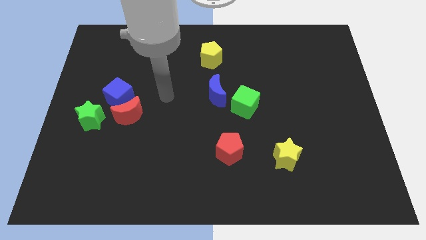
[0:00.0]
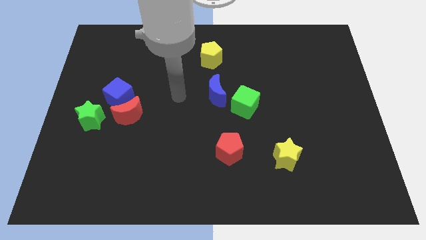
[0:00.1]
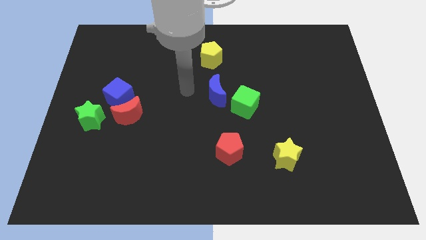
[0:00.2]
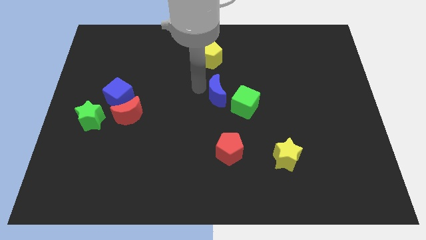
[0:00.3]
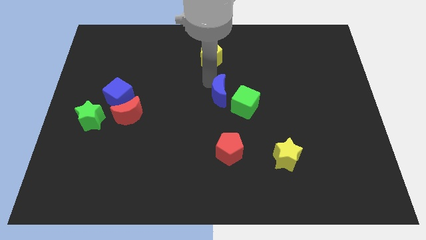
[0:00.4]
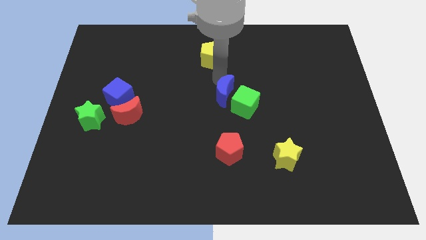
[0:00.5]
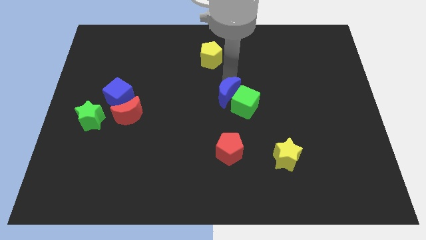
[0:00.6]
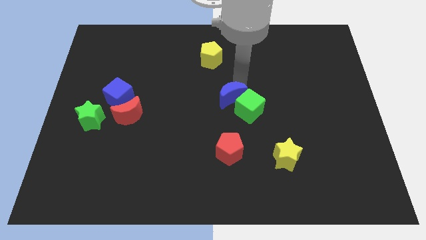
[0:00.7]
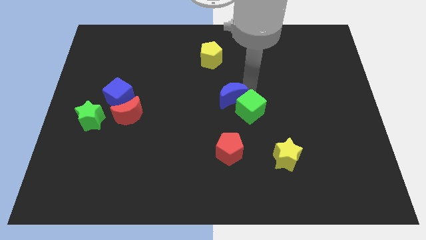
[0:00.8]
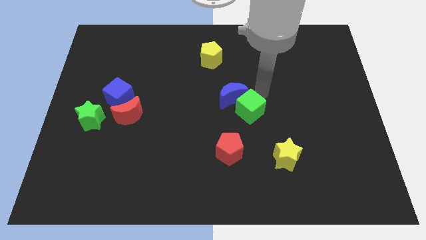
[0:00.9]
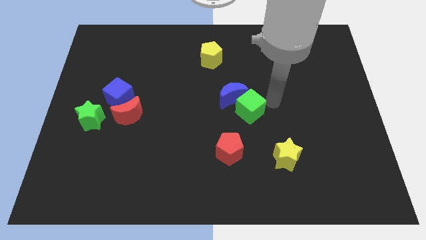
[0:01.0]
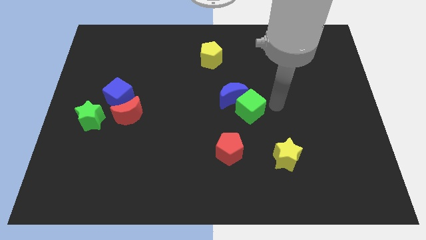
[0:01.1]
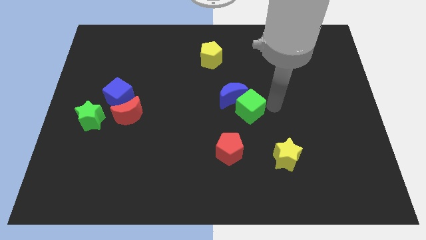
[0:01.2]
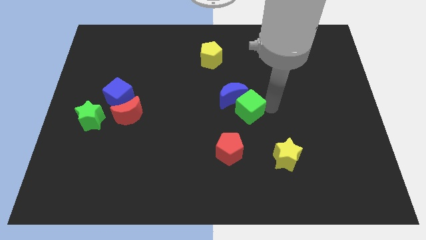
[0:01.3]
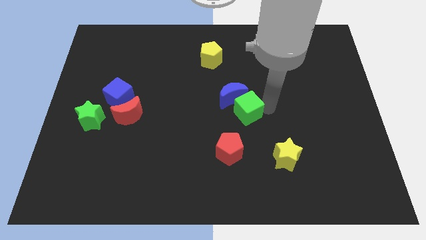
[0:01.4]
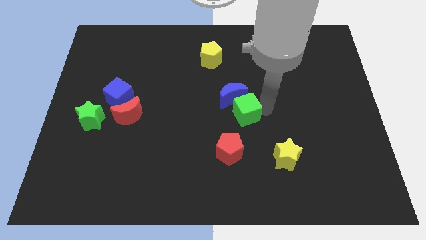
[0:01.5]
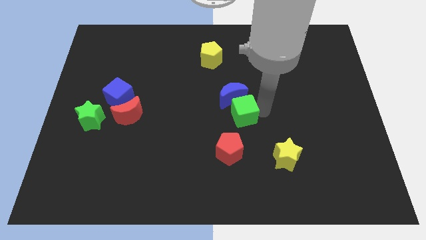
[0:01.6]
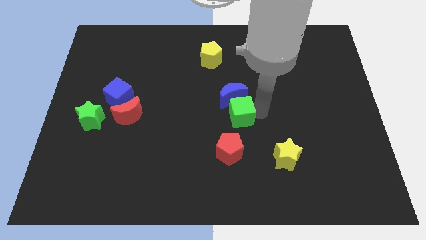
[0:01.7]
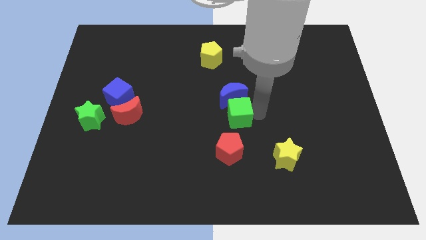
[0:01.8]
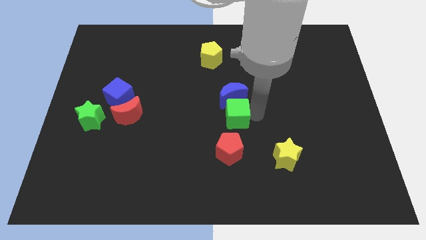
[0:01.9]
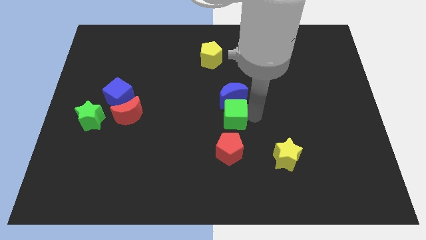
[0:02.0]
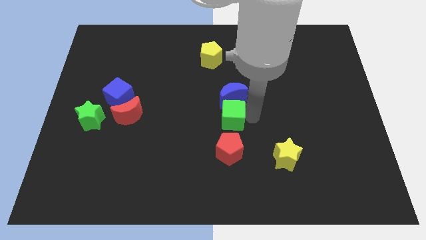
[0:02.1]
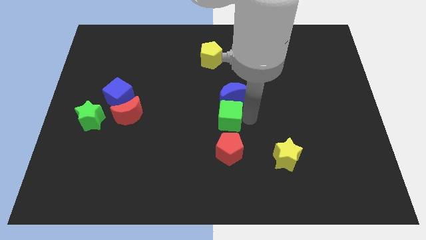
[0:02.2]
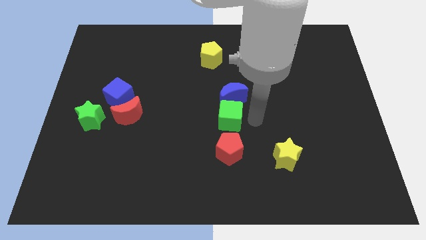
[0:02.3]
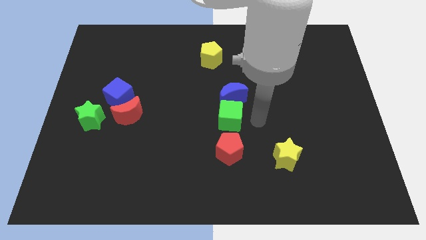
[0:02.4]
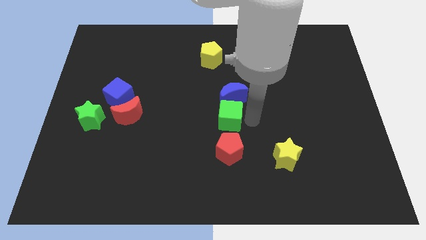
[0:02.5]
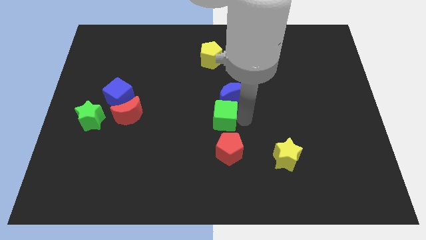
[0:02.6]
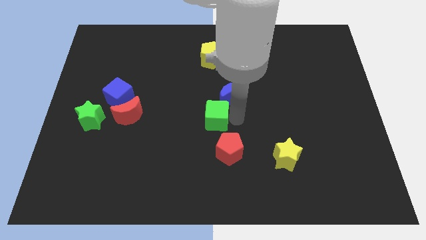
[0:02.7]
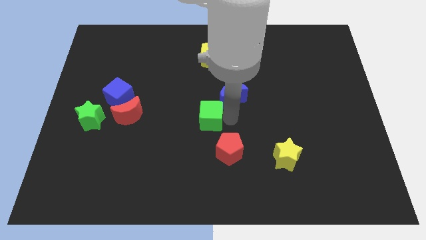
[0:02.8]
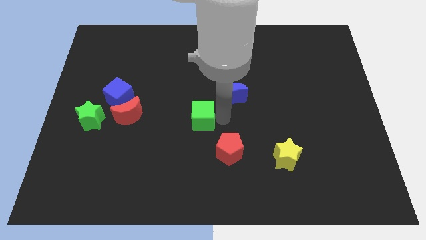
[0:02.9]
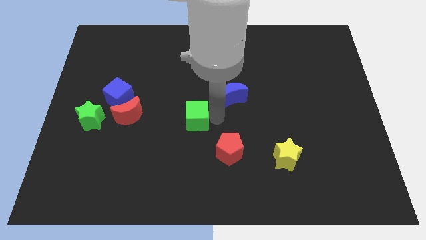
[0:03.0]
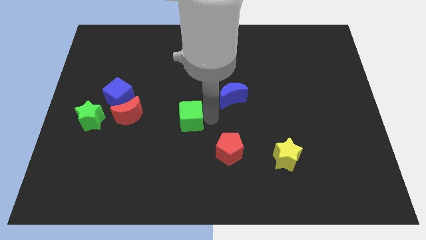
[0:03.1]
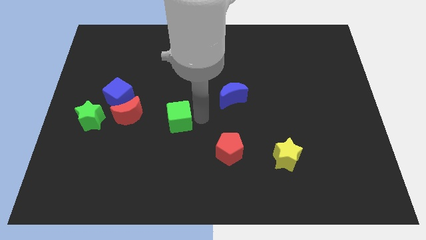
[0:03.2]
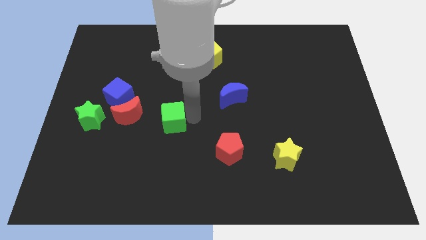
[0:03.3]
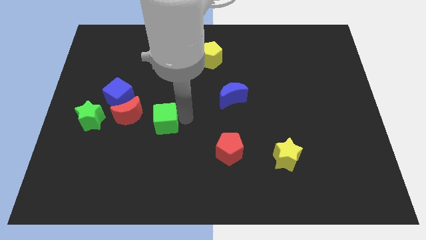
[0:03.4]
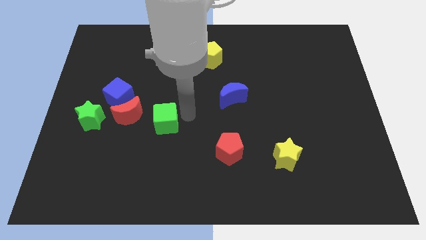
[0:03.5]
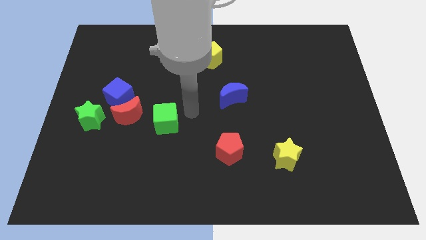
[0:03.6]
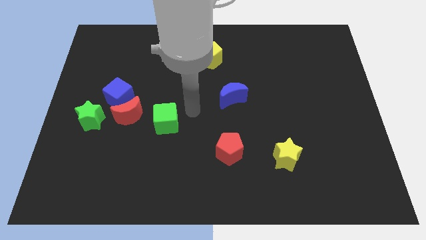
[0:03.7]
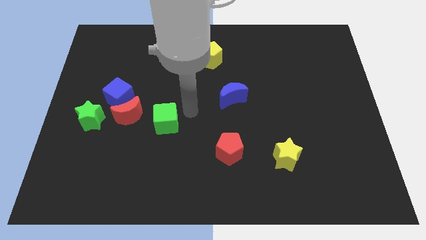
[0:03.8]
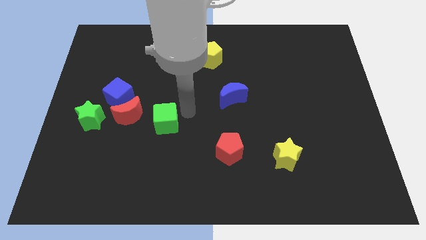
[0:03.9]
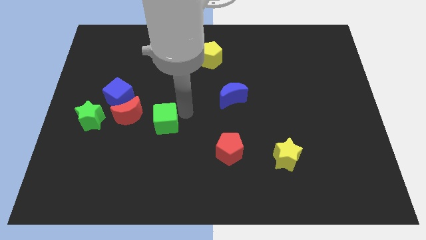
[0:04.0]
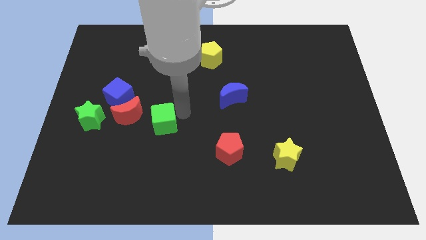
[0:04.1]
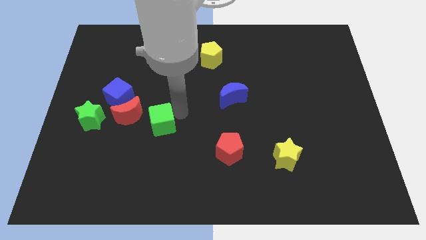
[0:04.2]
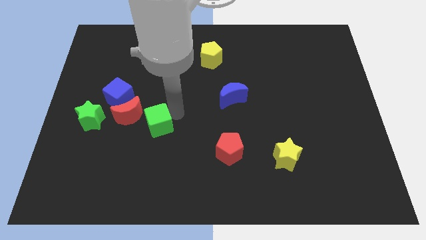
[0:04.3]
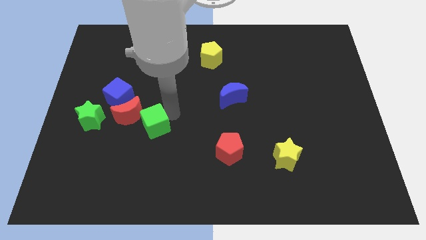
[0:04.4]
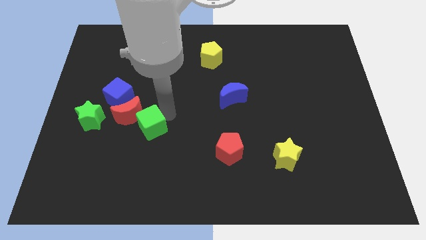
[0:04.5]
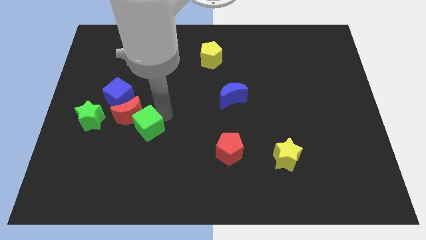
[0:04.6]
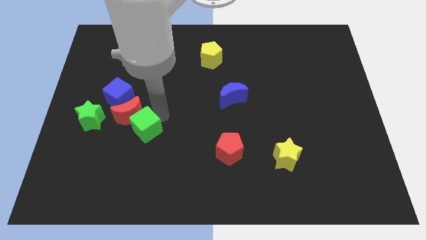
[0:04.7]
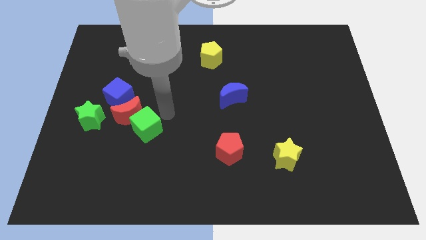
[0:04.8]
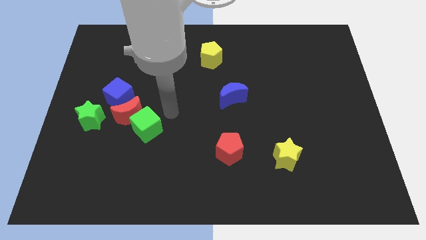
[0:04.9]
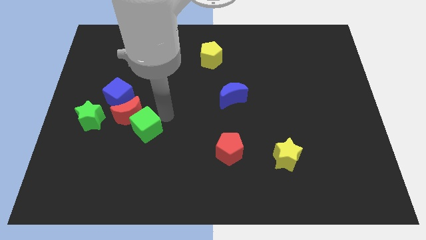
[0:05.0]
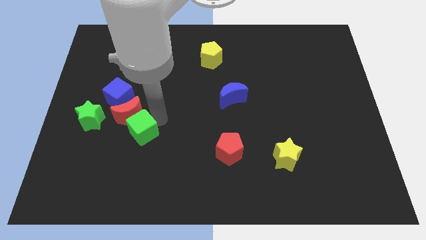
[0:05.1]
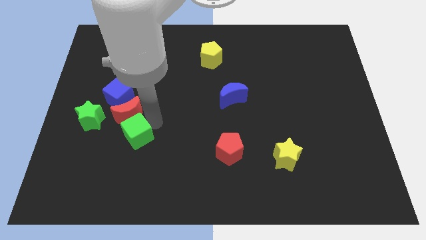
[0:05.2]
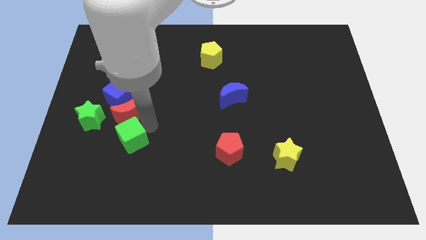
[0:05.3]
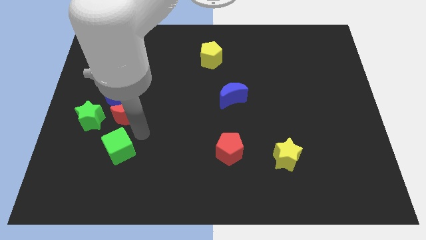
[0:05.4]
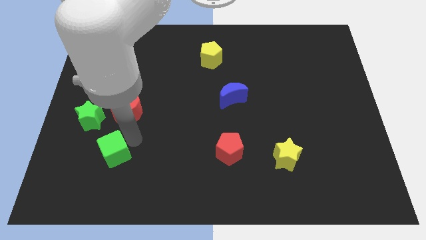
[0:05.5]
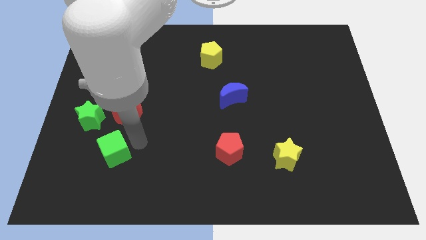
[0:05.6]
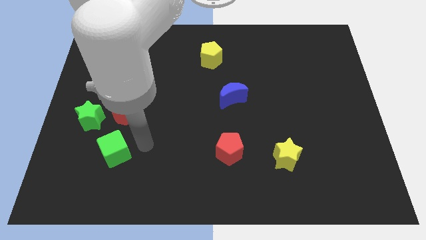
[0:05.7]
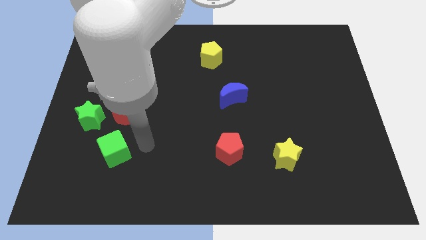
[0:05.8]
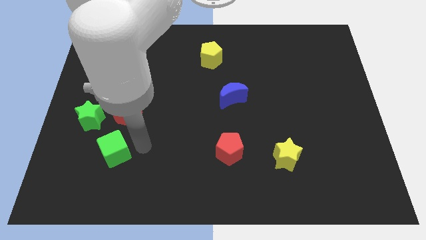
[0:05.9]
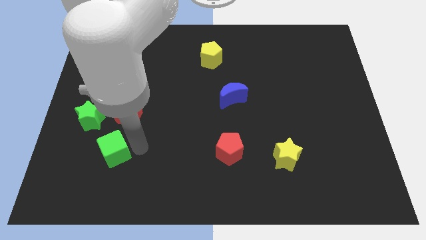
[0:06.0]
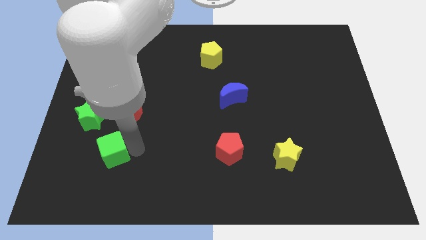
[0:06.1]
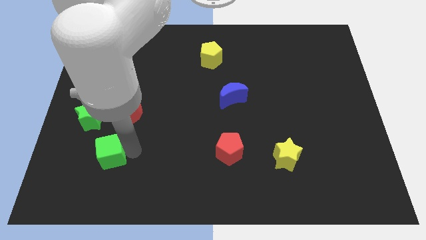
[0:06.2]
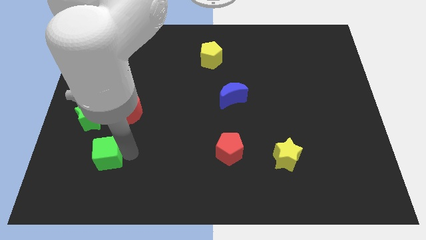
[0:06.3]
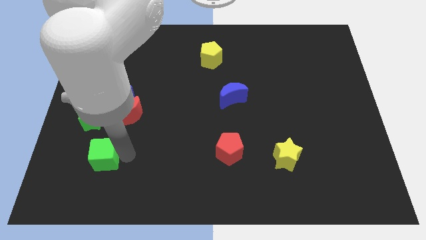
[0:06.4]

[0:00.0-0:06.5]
slide the green cube to the bottom side of the green star
